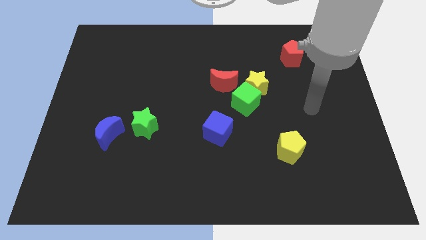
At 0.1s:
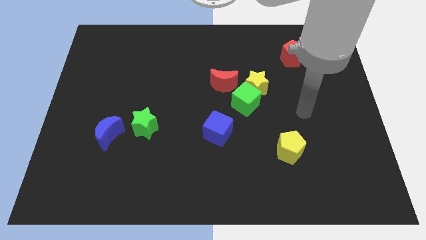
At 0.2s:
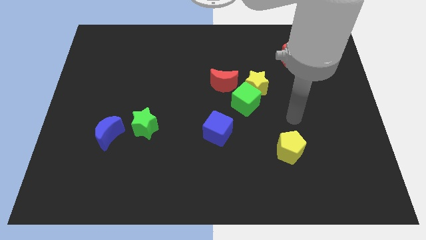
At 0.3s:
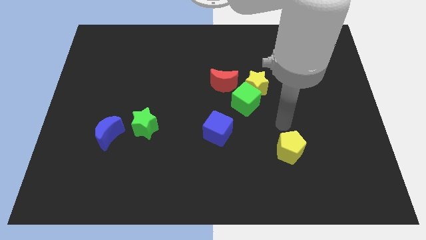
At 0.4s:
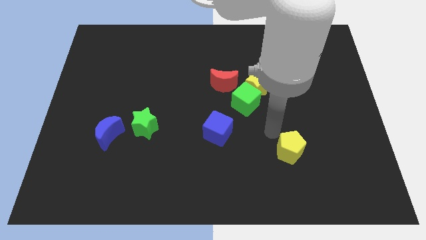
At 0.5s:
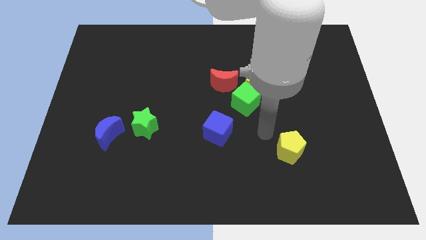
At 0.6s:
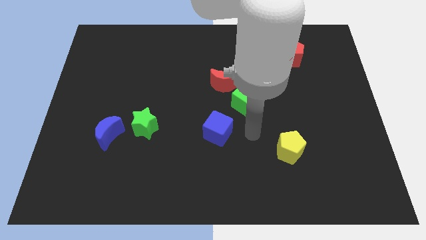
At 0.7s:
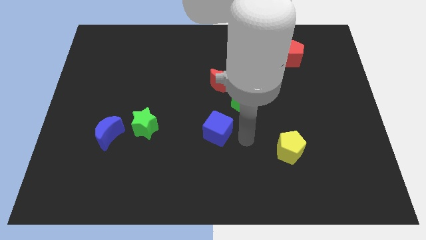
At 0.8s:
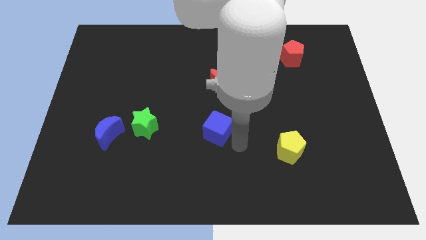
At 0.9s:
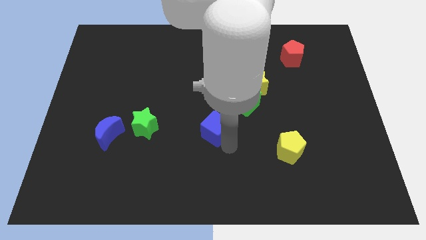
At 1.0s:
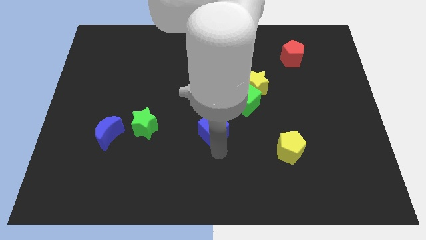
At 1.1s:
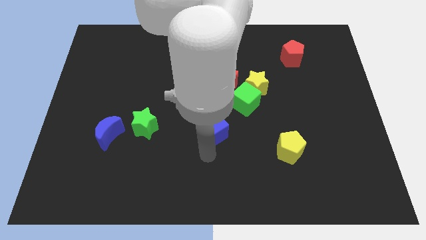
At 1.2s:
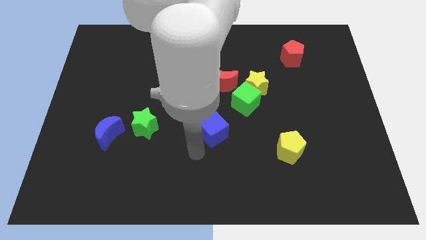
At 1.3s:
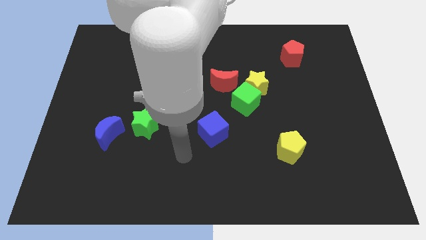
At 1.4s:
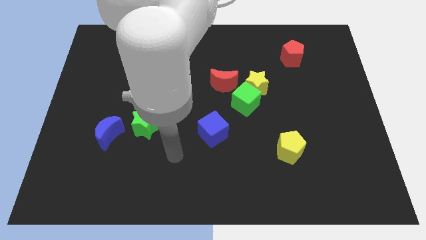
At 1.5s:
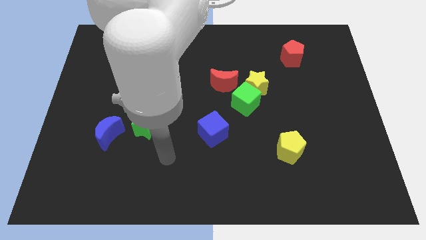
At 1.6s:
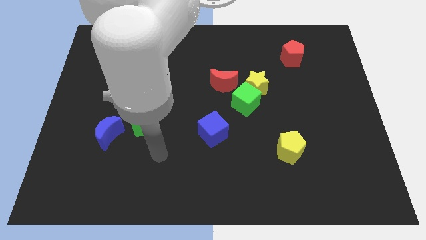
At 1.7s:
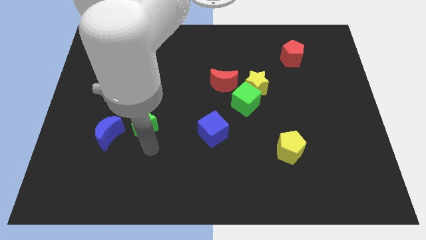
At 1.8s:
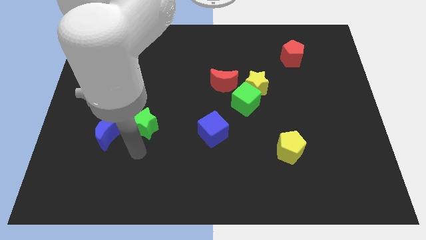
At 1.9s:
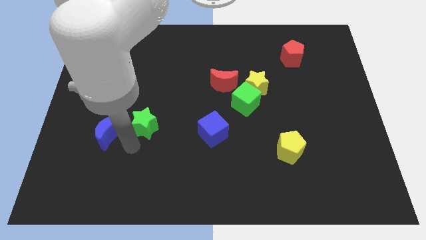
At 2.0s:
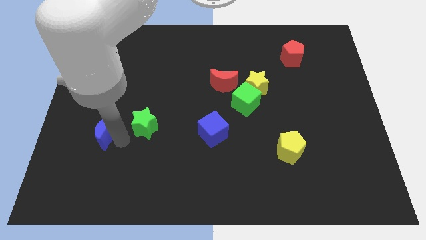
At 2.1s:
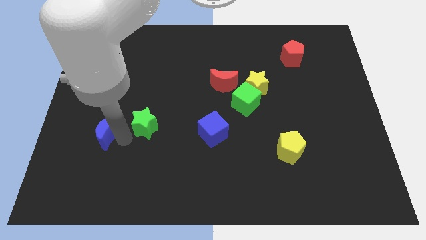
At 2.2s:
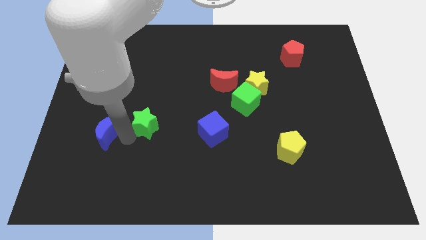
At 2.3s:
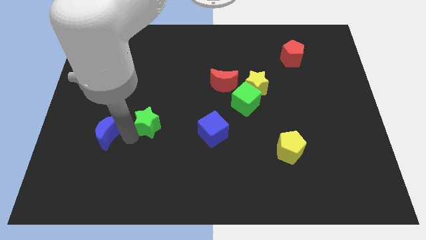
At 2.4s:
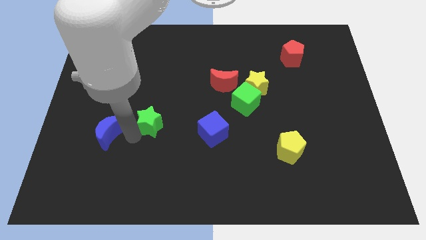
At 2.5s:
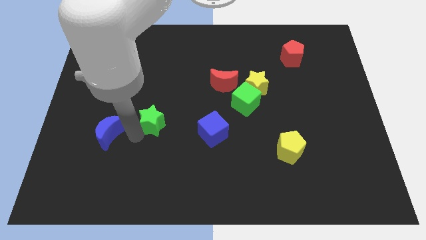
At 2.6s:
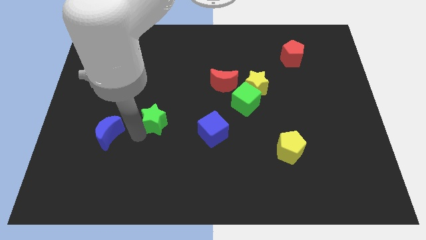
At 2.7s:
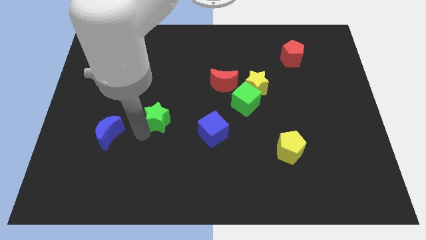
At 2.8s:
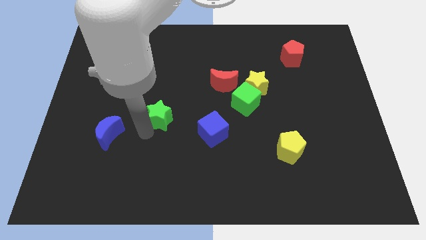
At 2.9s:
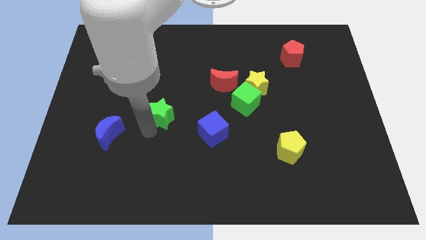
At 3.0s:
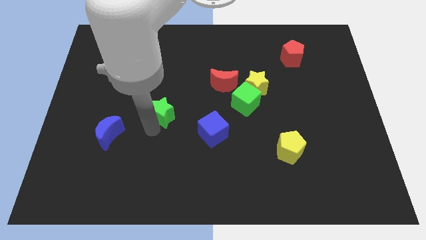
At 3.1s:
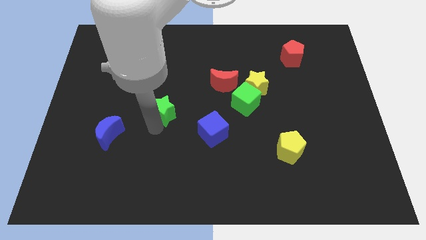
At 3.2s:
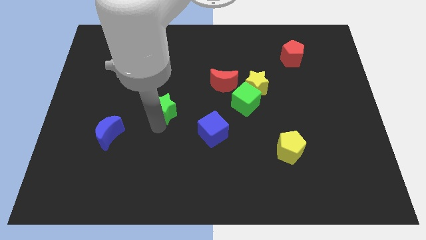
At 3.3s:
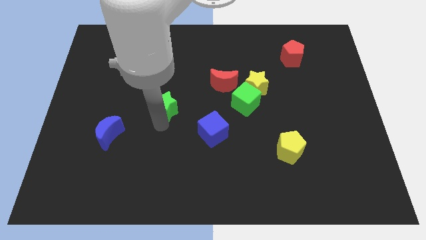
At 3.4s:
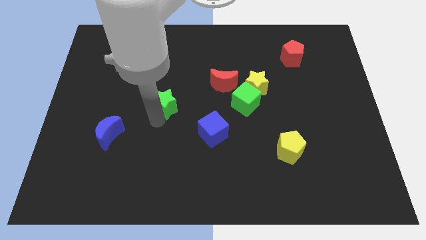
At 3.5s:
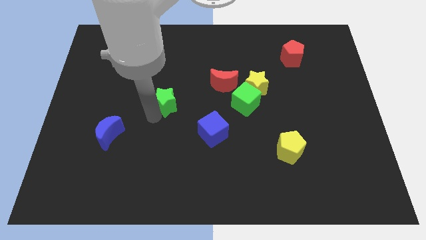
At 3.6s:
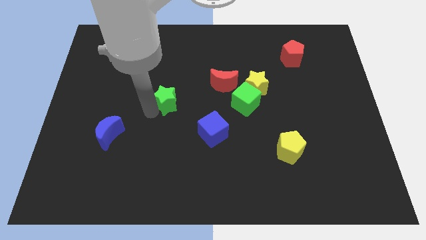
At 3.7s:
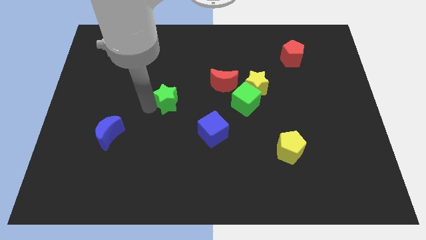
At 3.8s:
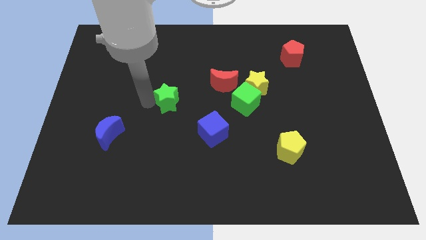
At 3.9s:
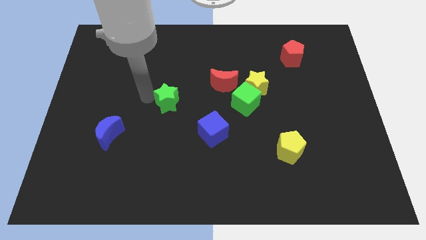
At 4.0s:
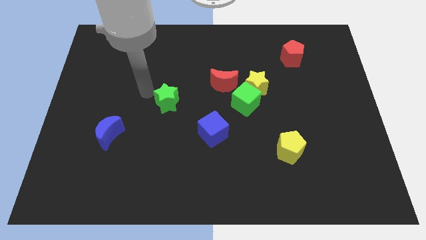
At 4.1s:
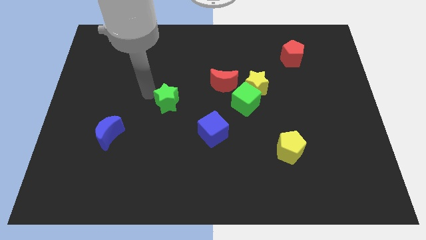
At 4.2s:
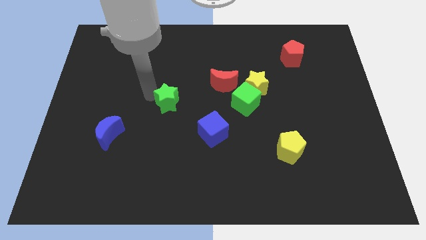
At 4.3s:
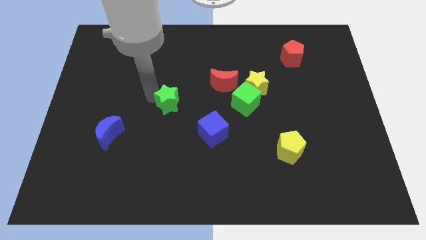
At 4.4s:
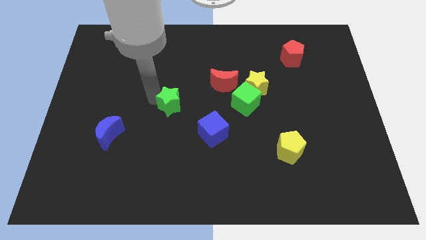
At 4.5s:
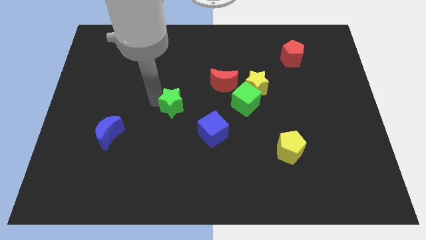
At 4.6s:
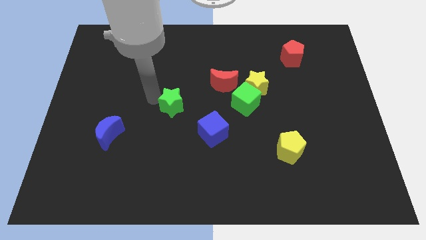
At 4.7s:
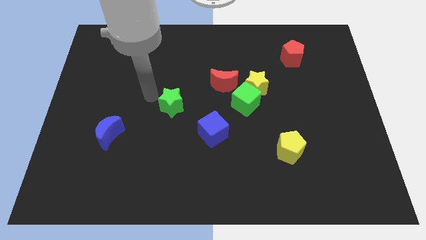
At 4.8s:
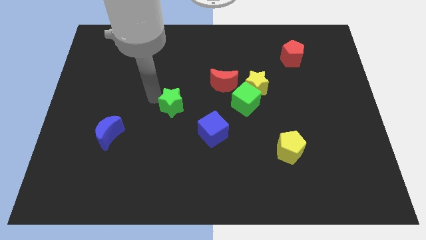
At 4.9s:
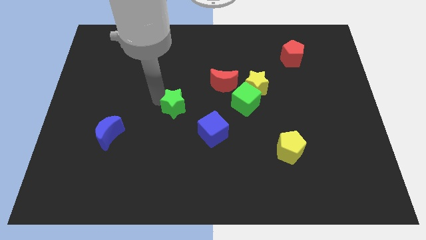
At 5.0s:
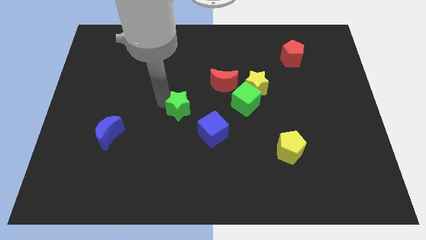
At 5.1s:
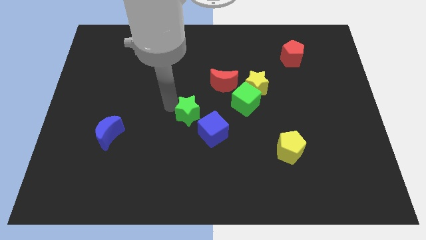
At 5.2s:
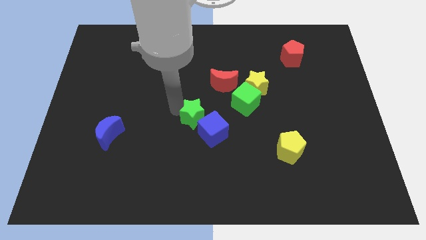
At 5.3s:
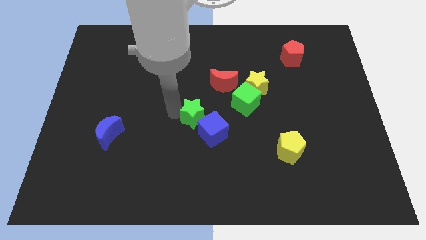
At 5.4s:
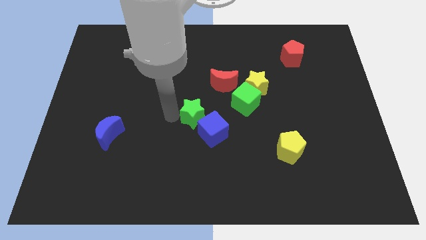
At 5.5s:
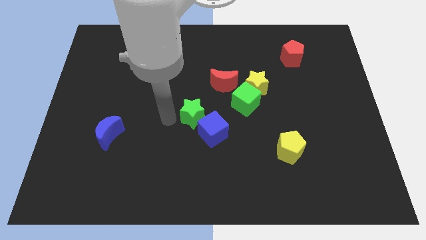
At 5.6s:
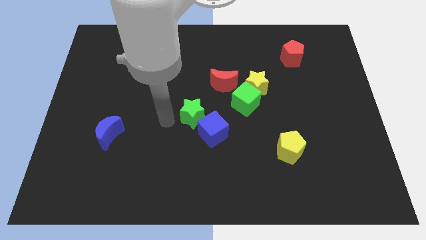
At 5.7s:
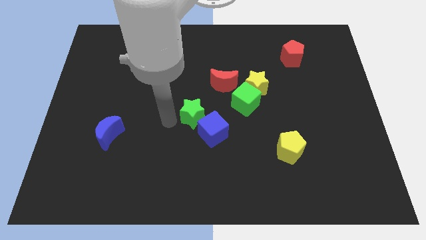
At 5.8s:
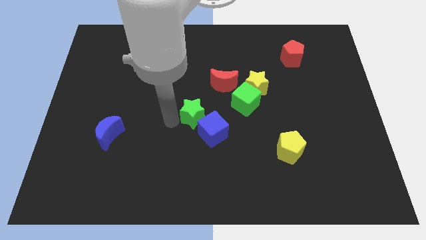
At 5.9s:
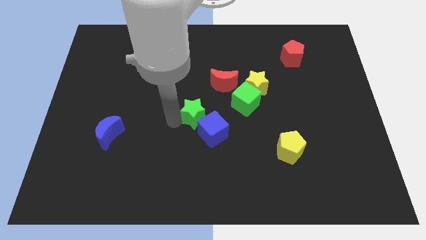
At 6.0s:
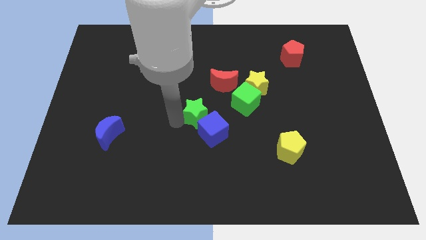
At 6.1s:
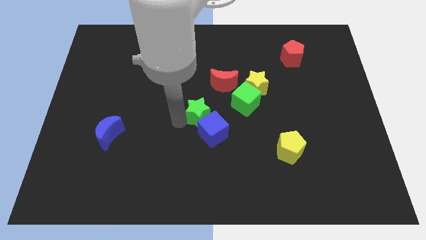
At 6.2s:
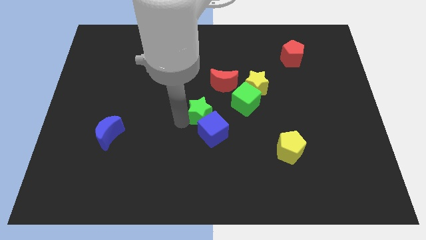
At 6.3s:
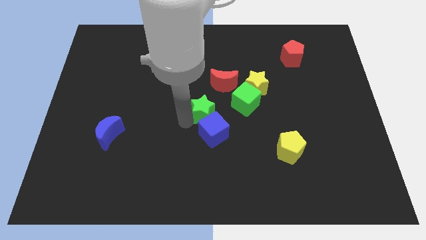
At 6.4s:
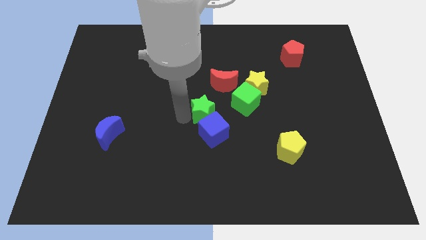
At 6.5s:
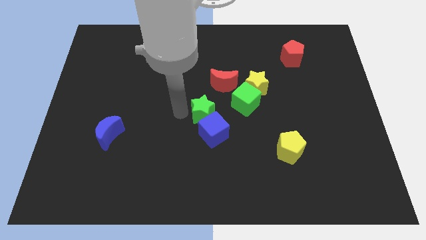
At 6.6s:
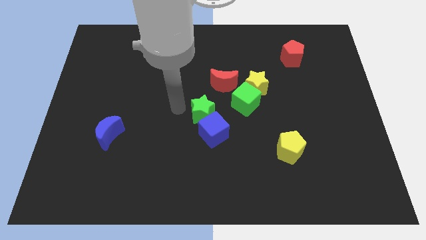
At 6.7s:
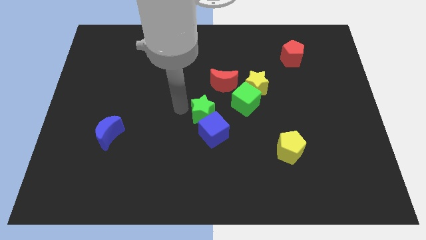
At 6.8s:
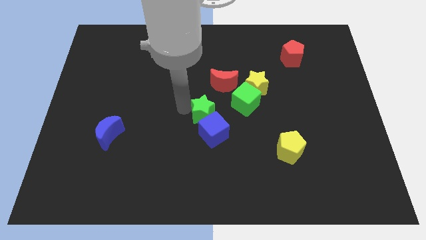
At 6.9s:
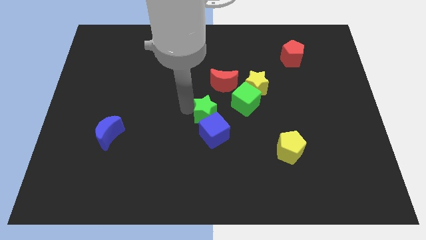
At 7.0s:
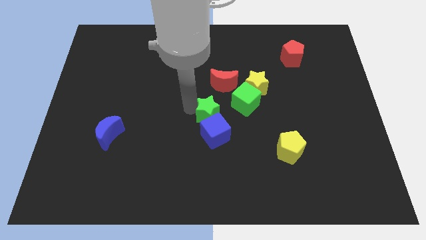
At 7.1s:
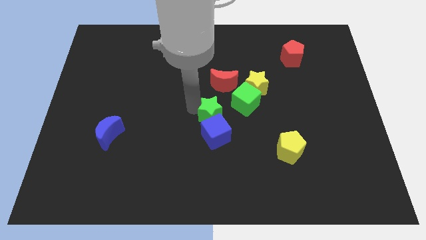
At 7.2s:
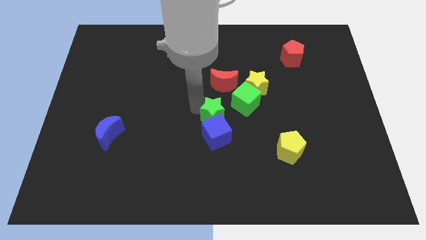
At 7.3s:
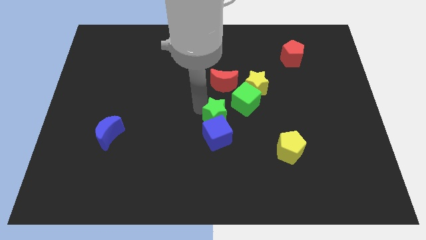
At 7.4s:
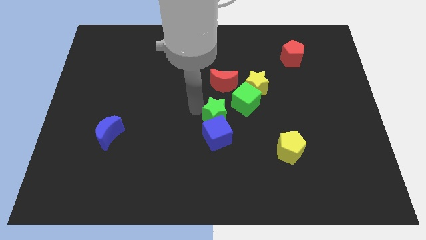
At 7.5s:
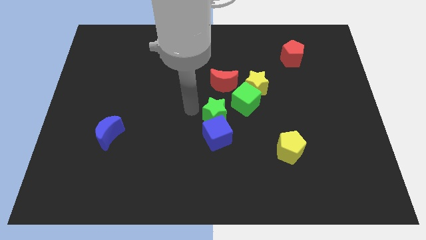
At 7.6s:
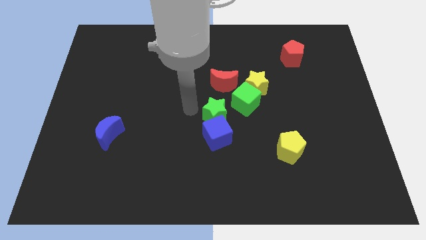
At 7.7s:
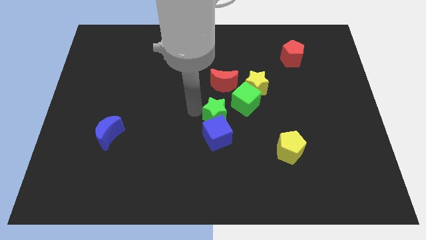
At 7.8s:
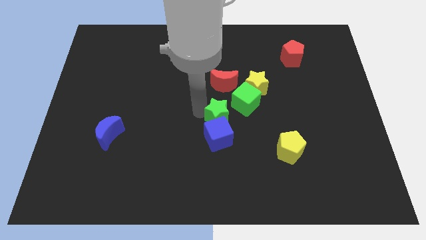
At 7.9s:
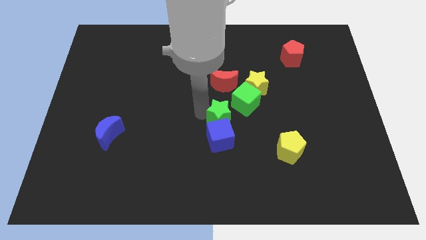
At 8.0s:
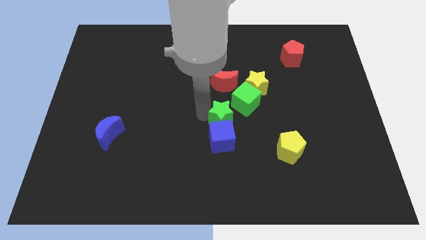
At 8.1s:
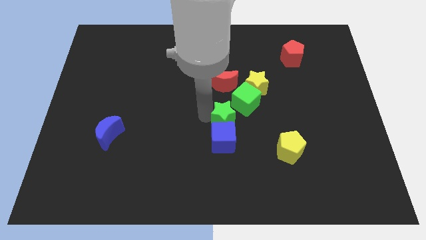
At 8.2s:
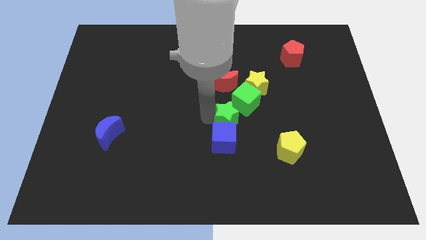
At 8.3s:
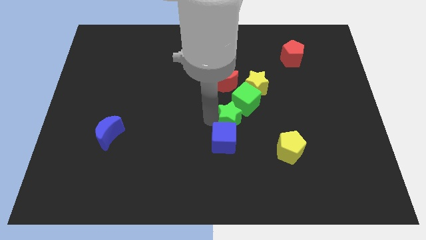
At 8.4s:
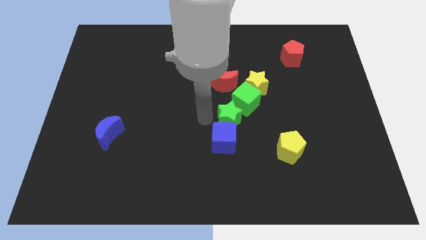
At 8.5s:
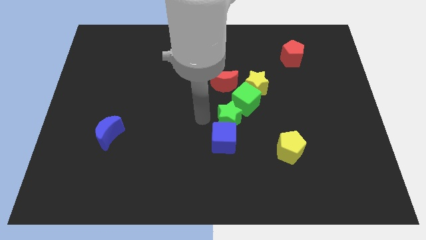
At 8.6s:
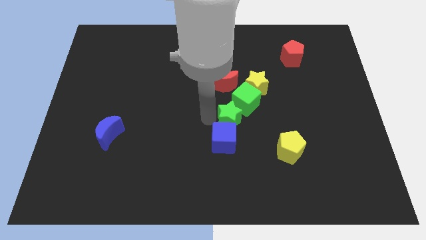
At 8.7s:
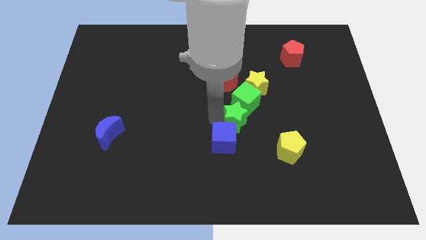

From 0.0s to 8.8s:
slide the green star right
